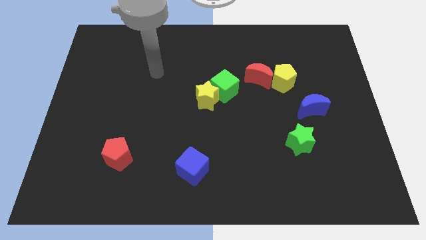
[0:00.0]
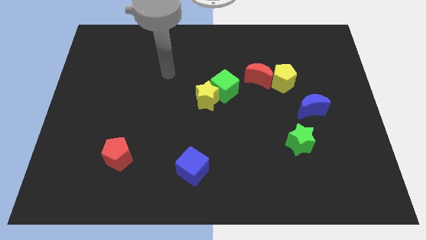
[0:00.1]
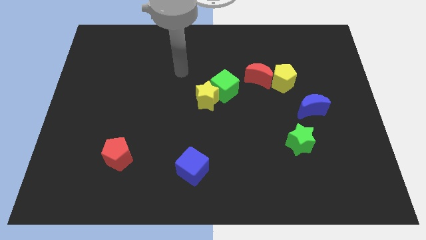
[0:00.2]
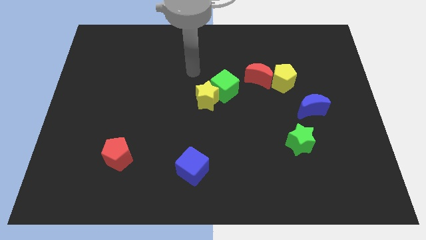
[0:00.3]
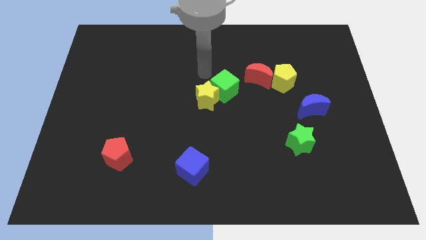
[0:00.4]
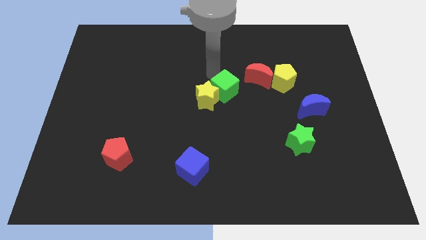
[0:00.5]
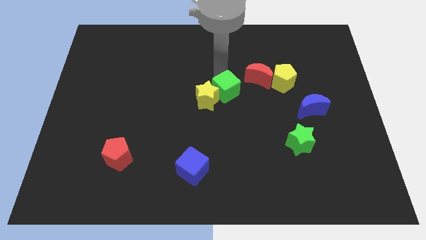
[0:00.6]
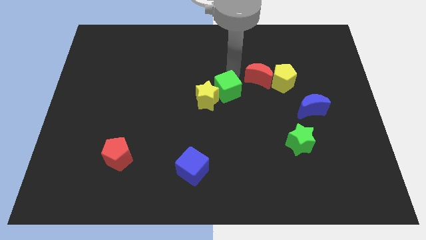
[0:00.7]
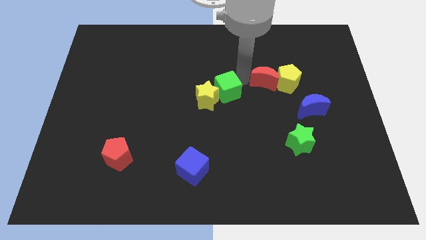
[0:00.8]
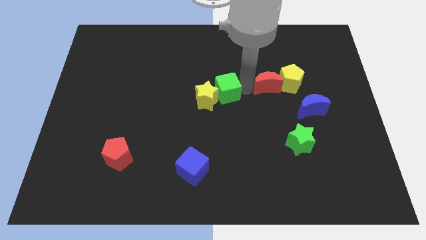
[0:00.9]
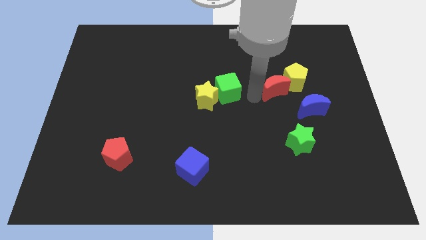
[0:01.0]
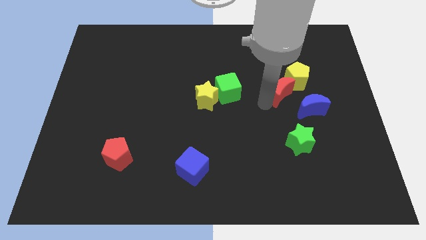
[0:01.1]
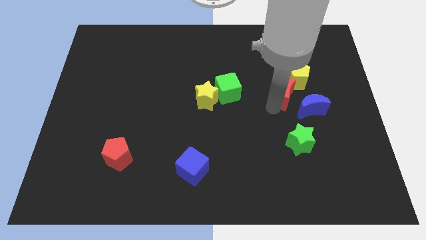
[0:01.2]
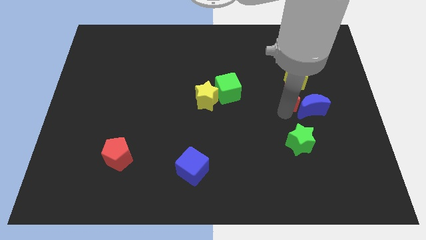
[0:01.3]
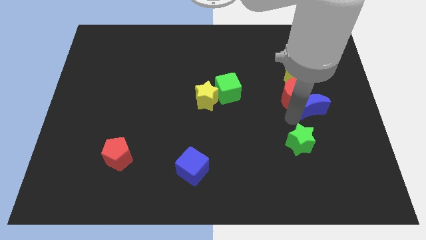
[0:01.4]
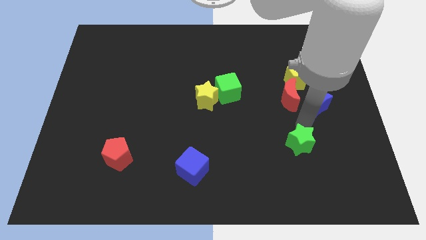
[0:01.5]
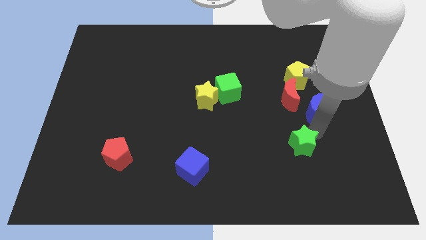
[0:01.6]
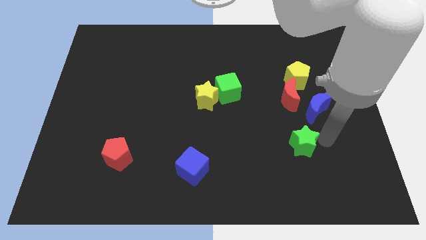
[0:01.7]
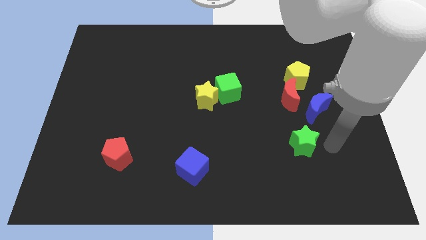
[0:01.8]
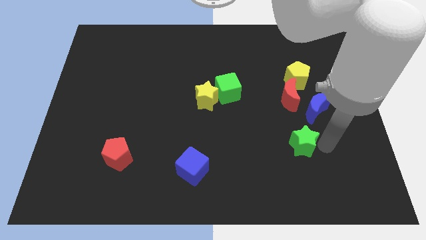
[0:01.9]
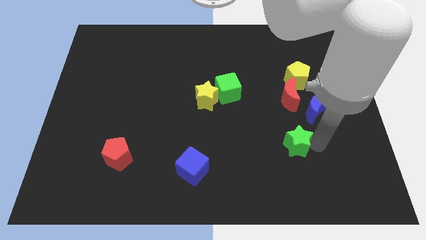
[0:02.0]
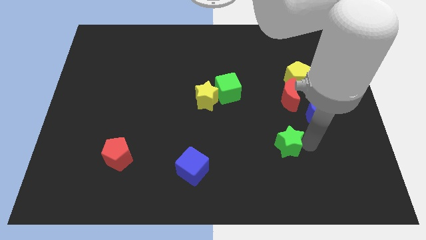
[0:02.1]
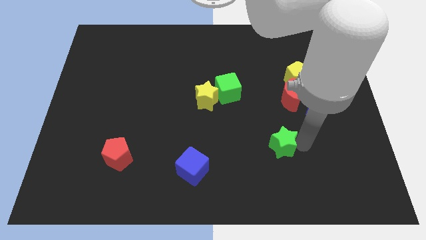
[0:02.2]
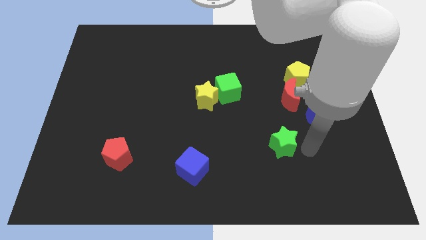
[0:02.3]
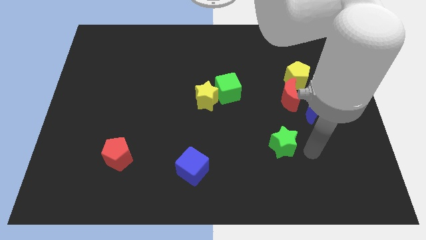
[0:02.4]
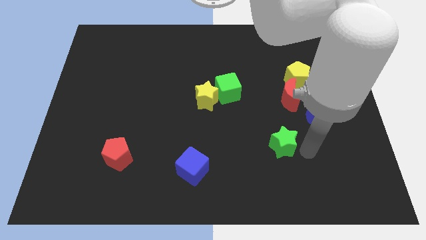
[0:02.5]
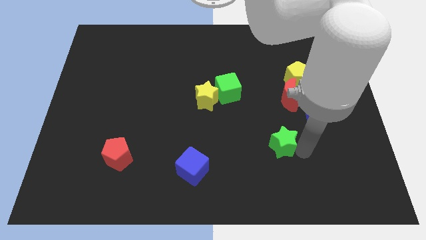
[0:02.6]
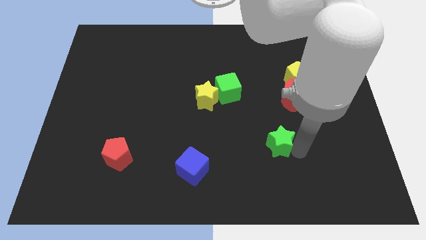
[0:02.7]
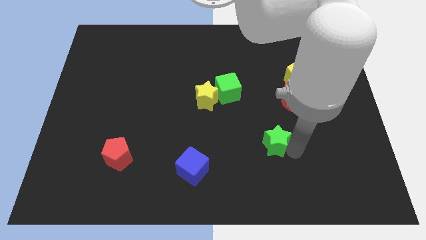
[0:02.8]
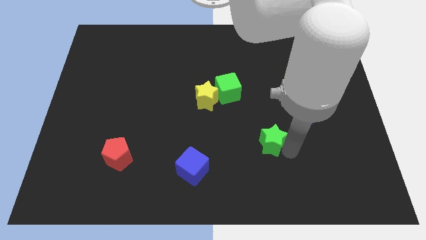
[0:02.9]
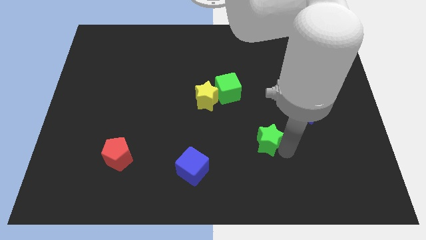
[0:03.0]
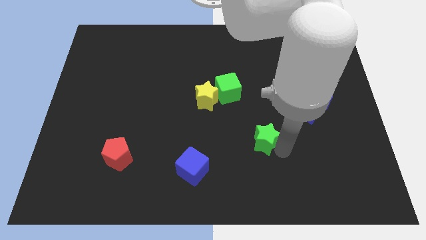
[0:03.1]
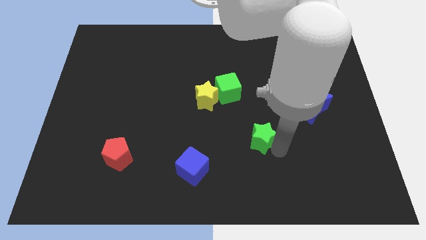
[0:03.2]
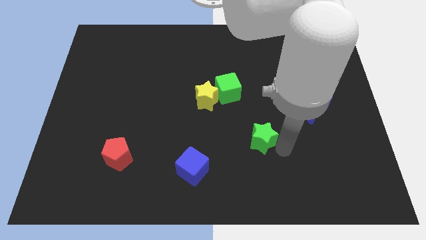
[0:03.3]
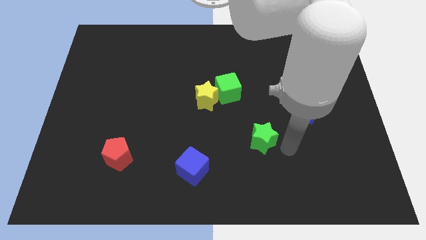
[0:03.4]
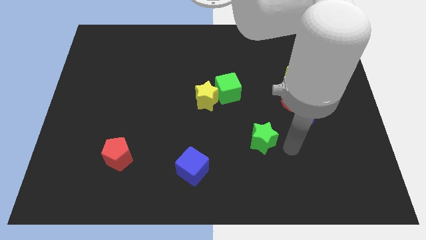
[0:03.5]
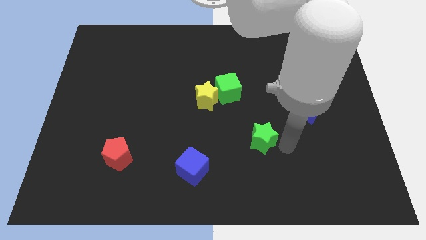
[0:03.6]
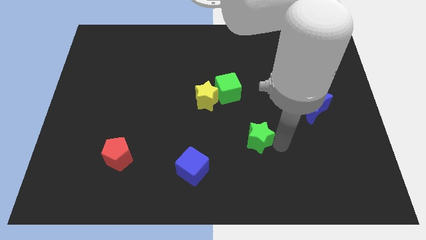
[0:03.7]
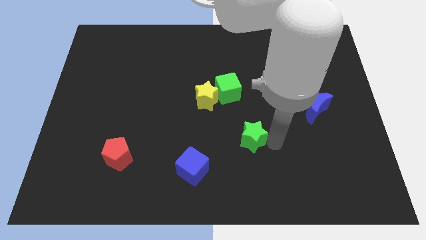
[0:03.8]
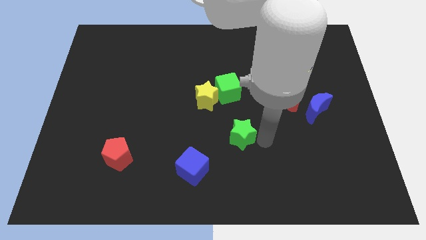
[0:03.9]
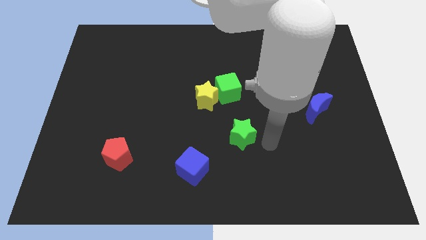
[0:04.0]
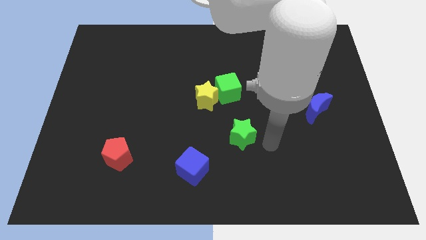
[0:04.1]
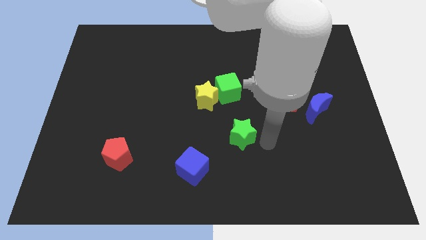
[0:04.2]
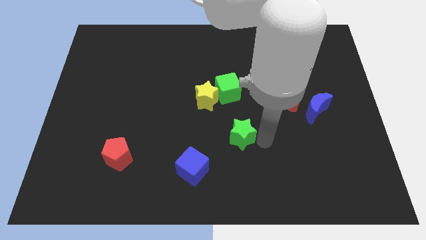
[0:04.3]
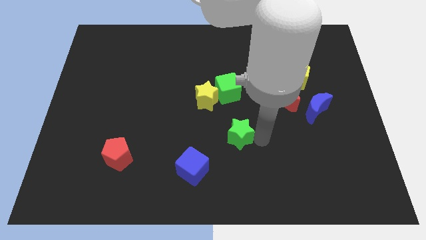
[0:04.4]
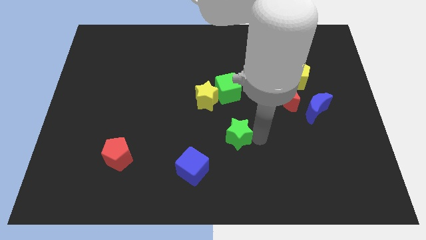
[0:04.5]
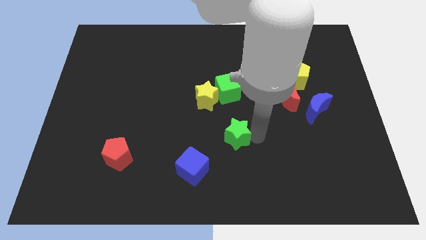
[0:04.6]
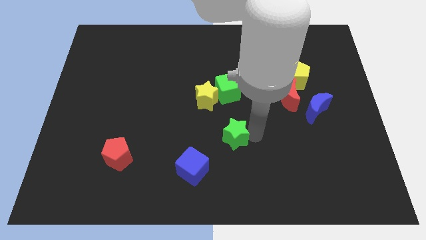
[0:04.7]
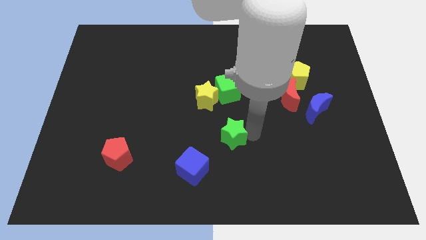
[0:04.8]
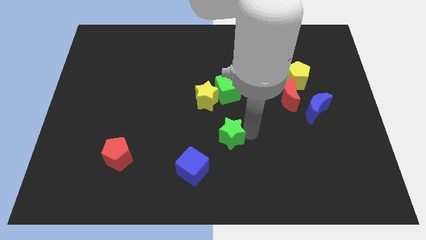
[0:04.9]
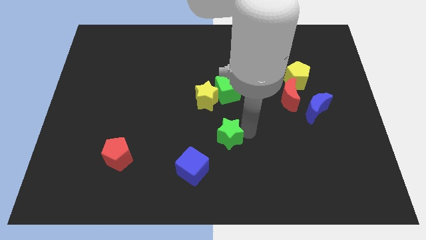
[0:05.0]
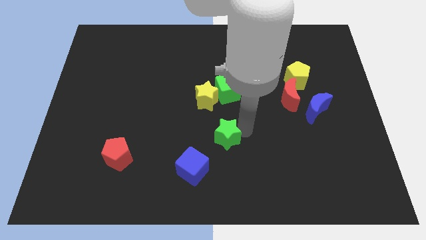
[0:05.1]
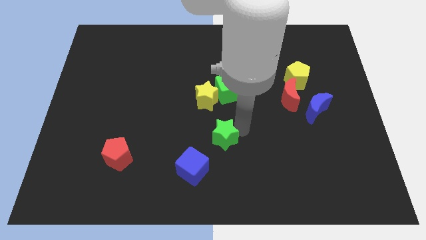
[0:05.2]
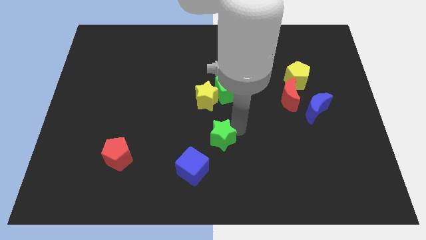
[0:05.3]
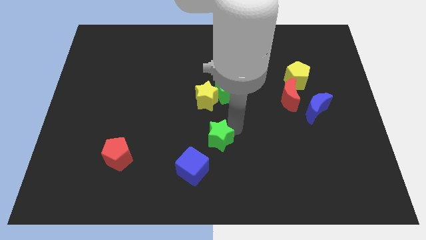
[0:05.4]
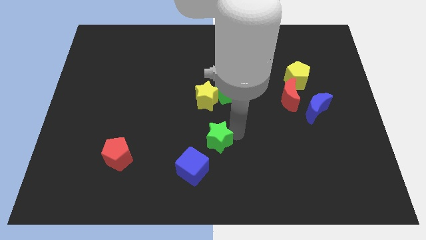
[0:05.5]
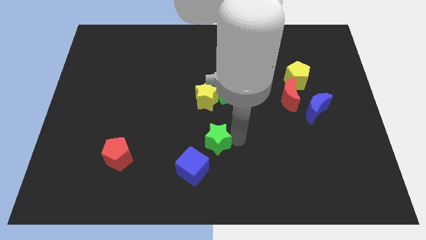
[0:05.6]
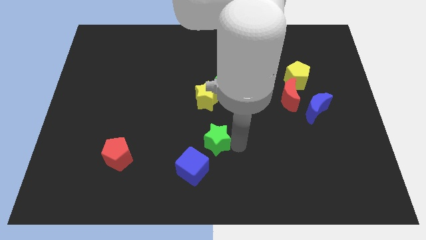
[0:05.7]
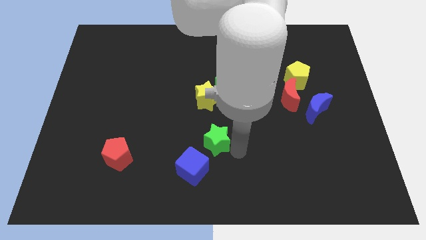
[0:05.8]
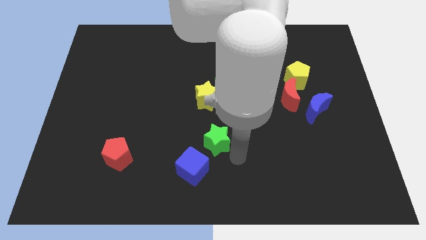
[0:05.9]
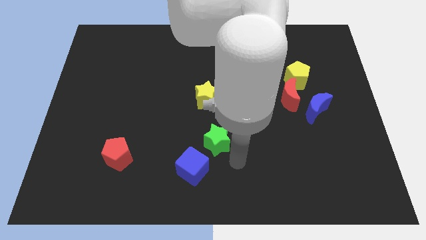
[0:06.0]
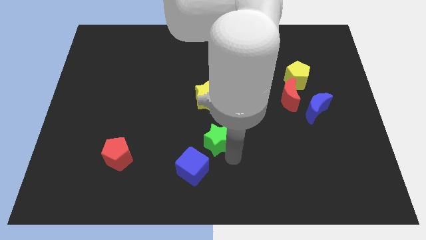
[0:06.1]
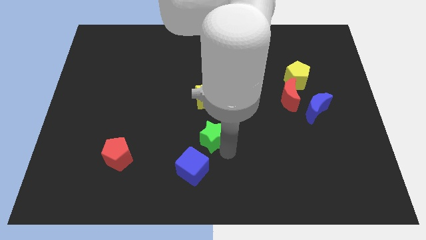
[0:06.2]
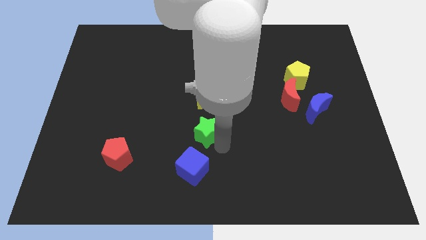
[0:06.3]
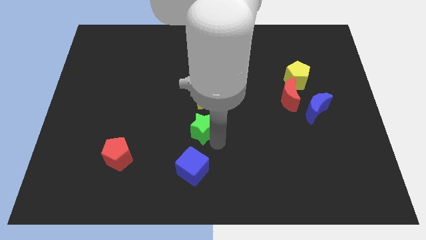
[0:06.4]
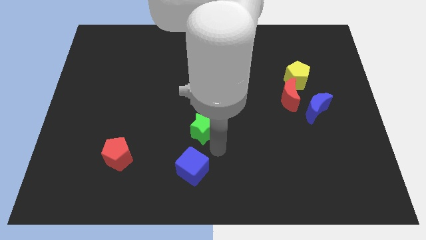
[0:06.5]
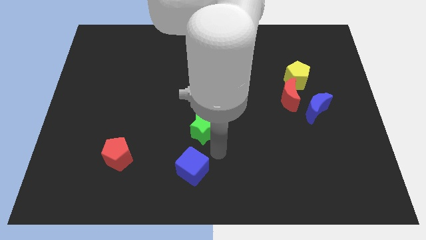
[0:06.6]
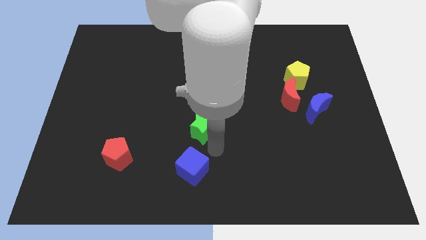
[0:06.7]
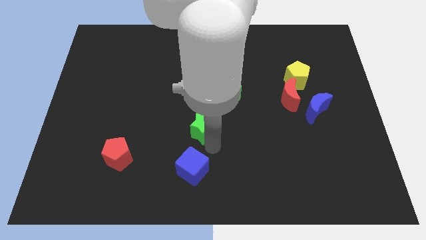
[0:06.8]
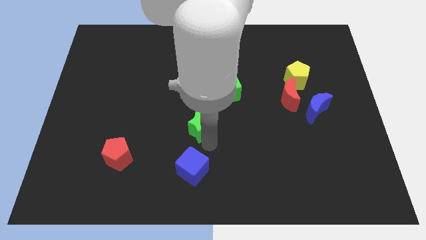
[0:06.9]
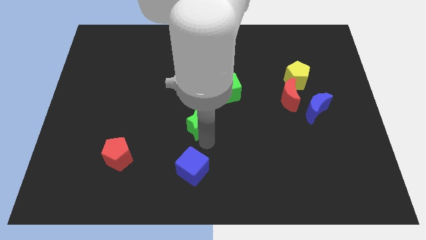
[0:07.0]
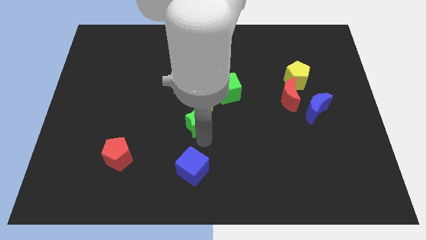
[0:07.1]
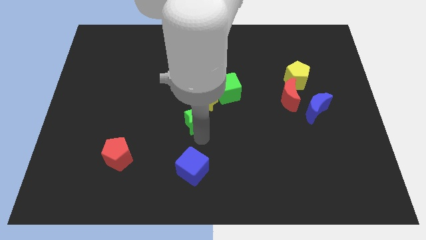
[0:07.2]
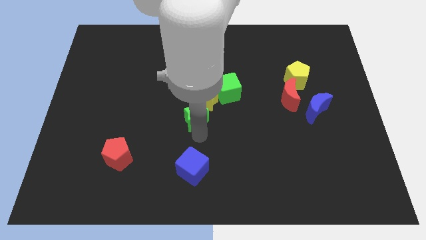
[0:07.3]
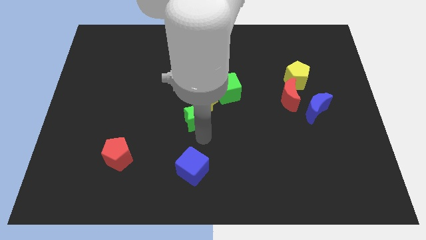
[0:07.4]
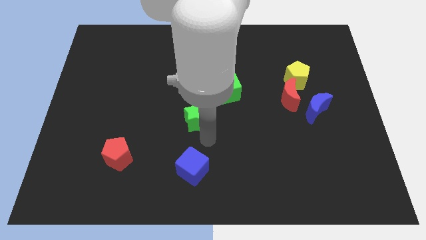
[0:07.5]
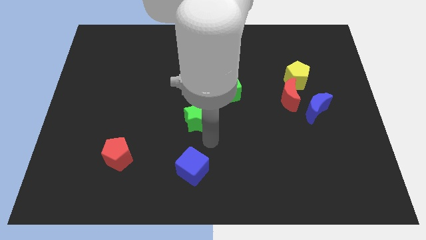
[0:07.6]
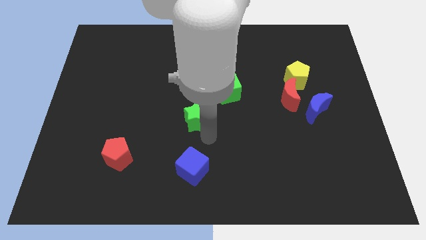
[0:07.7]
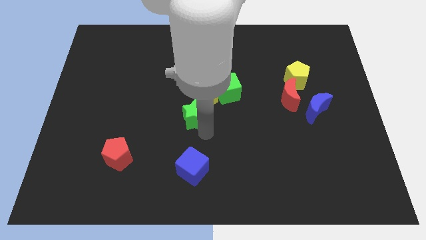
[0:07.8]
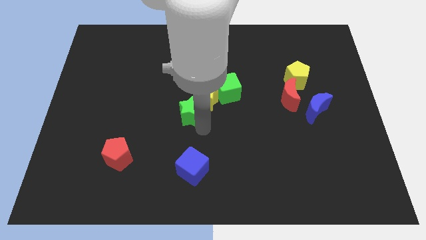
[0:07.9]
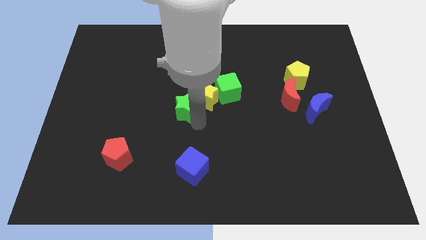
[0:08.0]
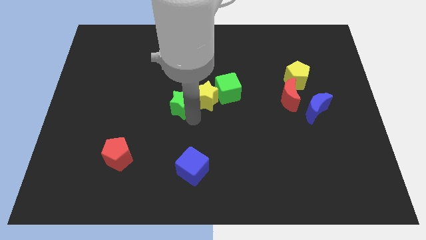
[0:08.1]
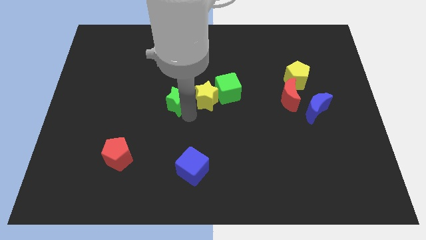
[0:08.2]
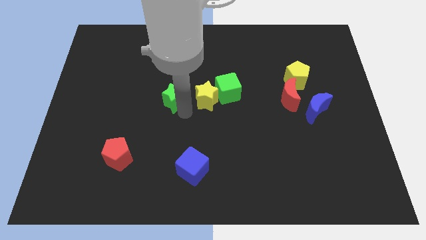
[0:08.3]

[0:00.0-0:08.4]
slide the green star up and then left

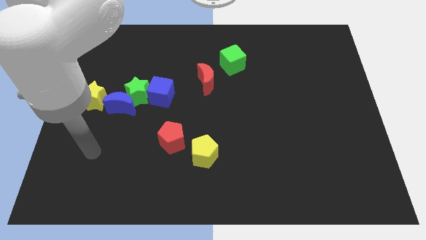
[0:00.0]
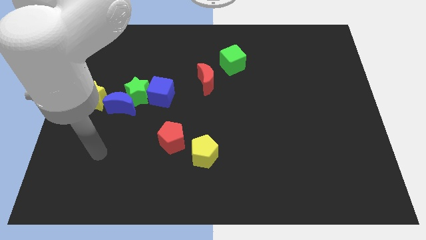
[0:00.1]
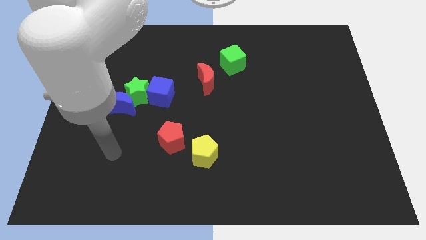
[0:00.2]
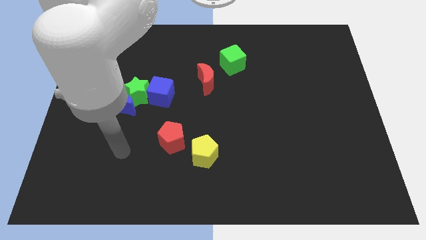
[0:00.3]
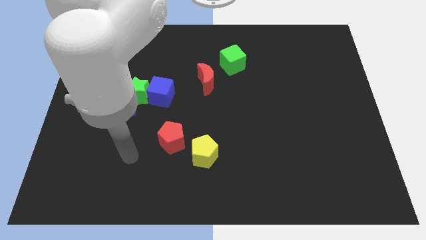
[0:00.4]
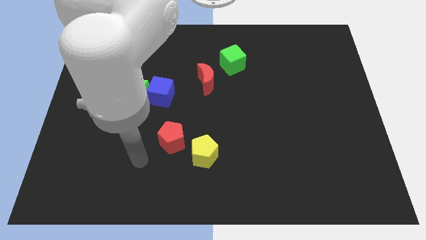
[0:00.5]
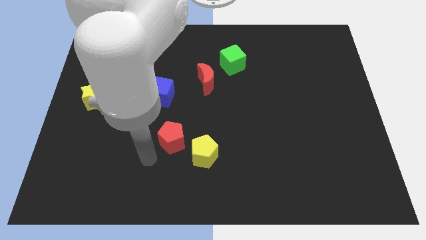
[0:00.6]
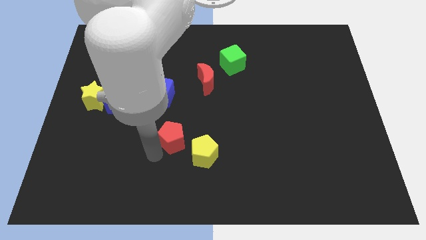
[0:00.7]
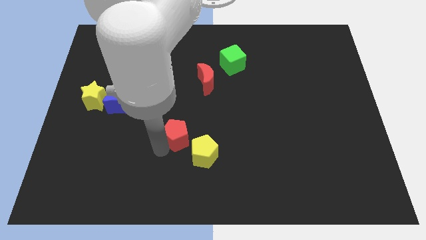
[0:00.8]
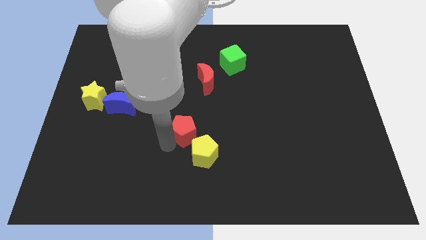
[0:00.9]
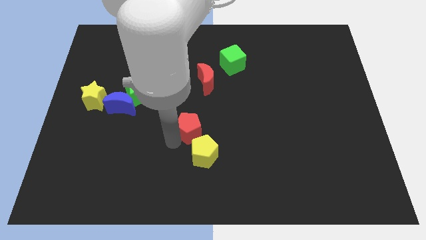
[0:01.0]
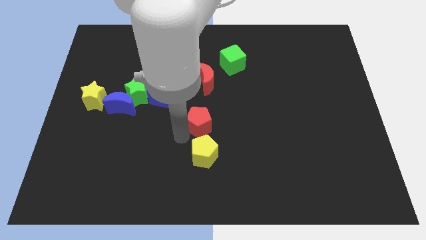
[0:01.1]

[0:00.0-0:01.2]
slide the red pentagon diagonally up and right slightly
